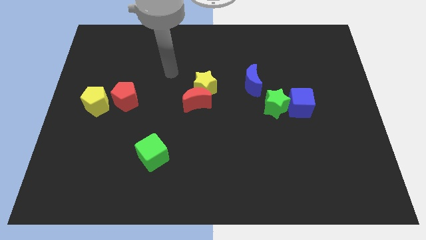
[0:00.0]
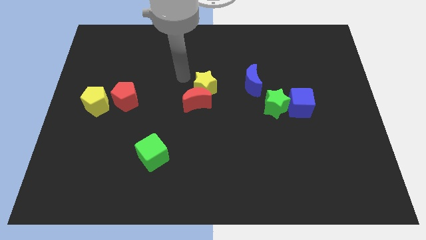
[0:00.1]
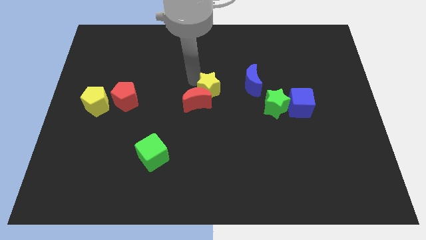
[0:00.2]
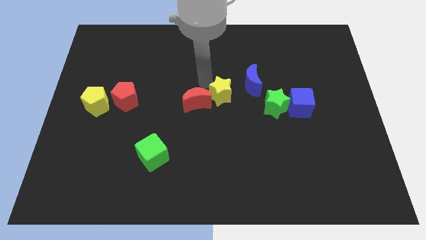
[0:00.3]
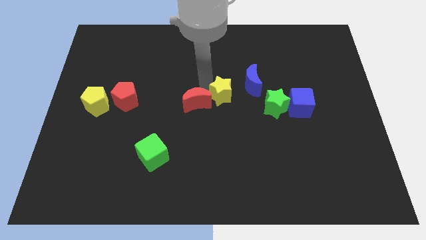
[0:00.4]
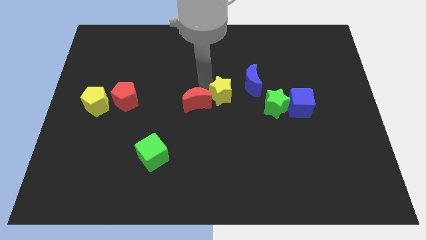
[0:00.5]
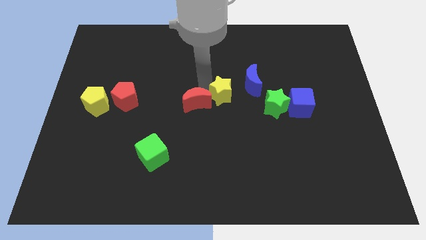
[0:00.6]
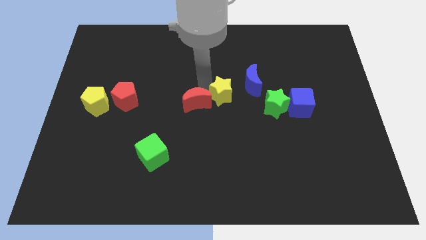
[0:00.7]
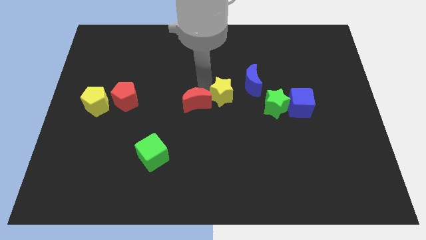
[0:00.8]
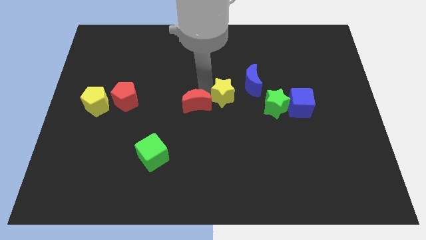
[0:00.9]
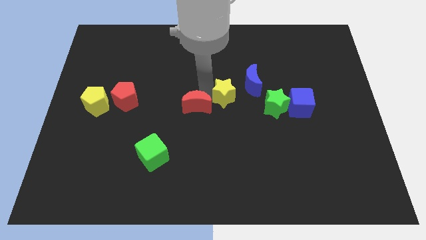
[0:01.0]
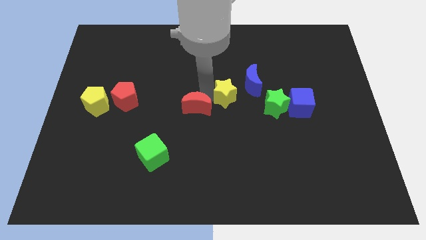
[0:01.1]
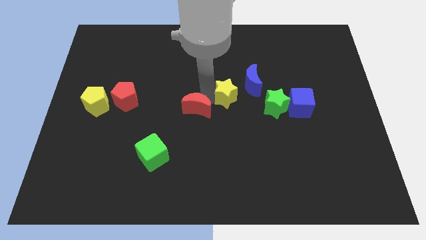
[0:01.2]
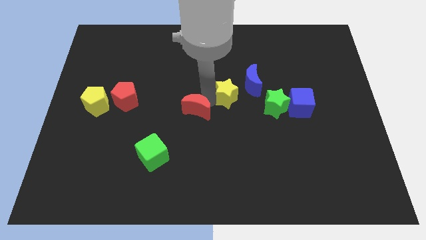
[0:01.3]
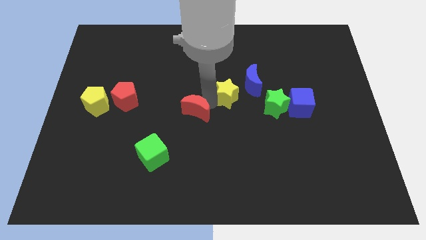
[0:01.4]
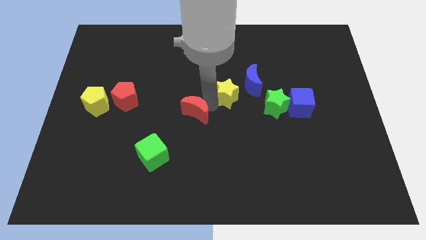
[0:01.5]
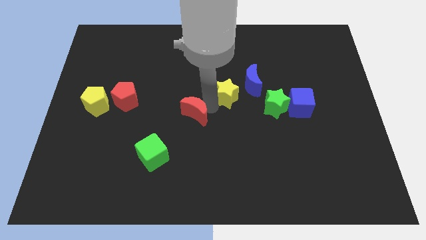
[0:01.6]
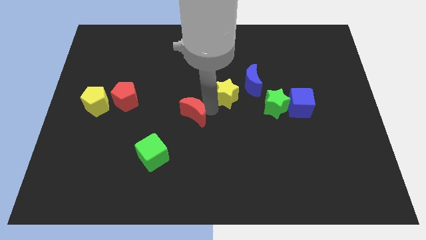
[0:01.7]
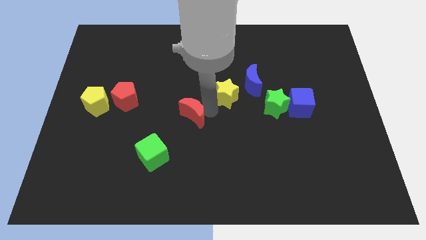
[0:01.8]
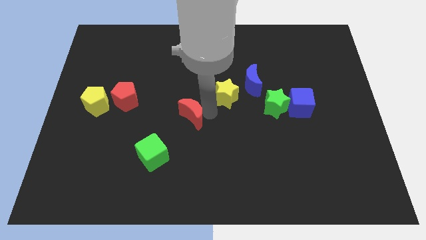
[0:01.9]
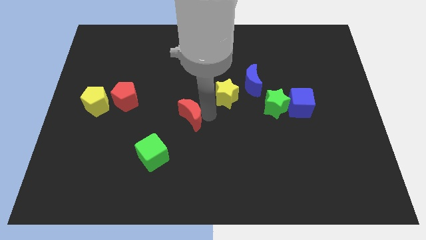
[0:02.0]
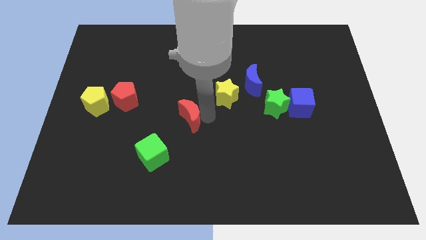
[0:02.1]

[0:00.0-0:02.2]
pull the red moon apart from the yellow star

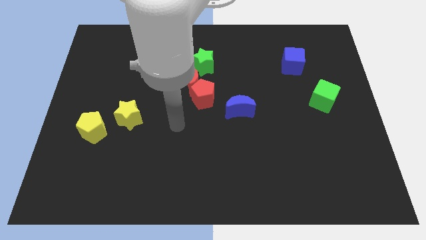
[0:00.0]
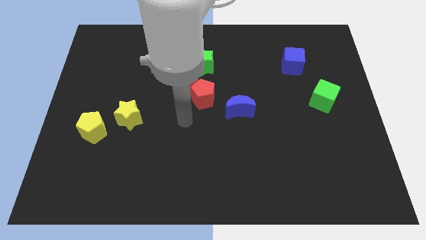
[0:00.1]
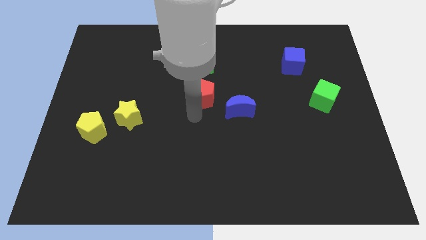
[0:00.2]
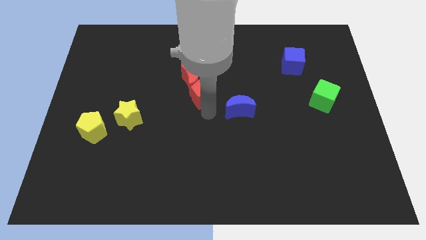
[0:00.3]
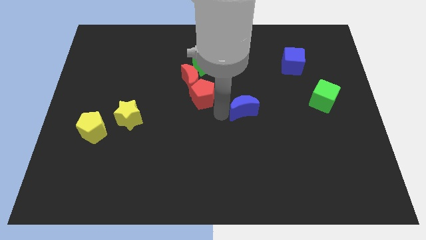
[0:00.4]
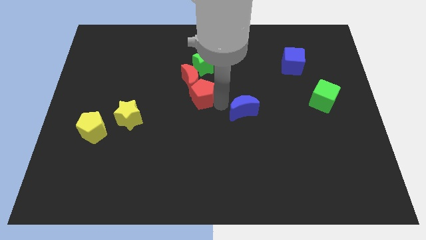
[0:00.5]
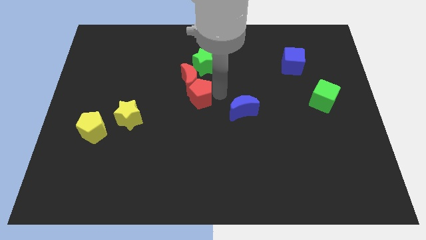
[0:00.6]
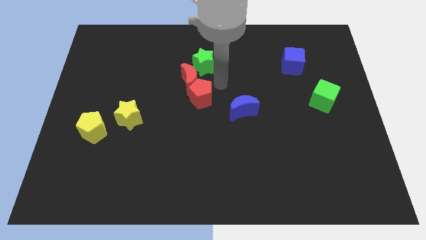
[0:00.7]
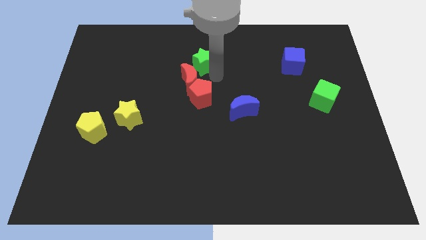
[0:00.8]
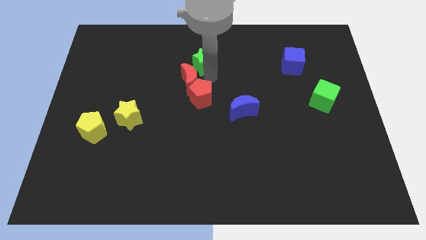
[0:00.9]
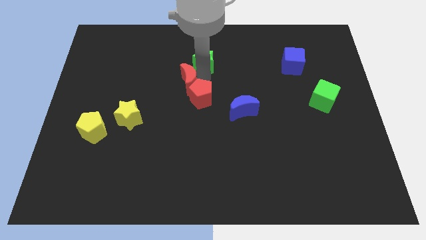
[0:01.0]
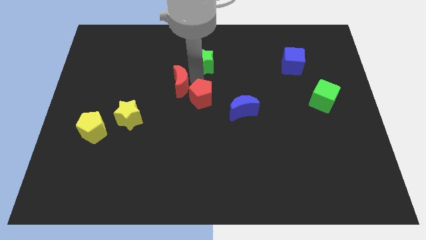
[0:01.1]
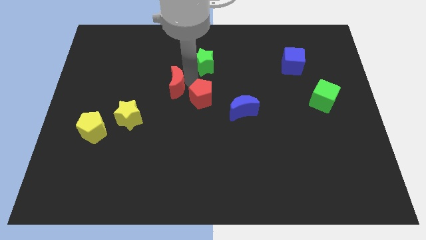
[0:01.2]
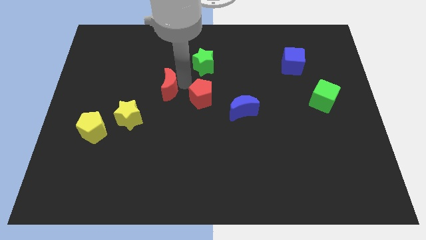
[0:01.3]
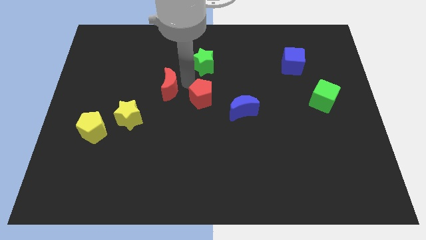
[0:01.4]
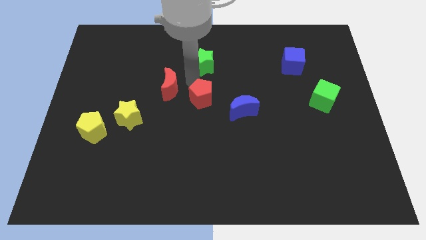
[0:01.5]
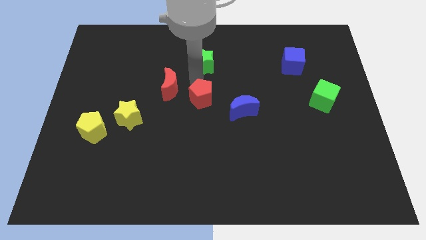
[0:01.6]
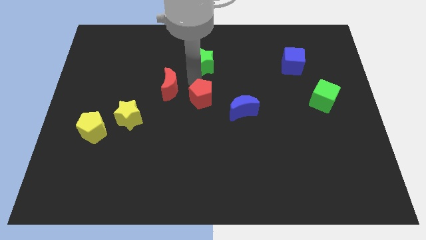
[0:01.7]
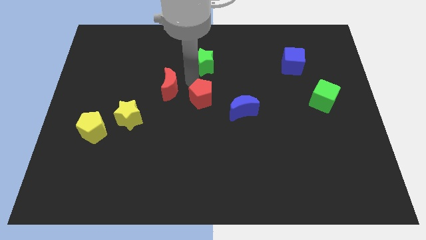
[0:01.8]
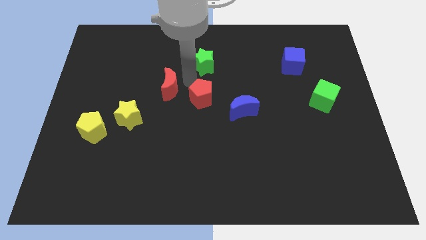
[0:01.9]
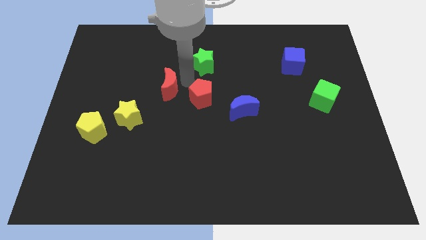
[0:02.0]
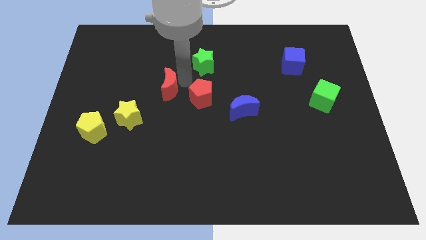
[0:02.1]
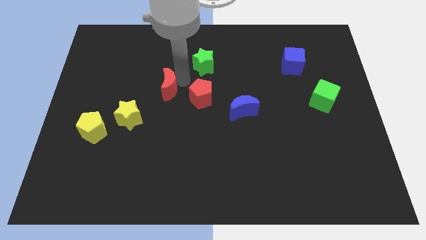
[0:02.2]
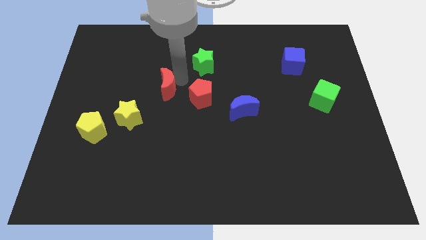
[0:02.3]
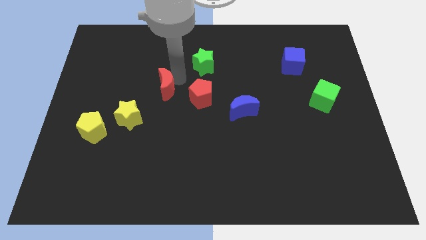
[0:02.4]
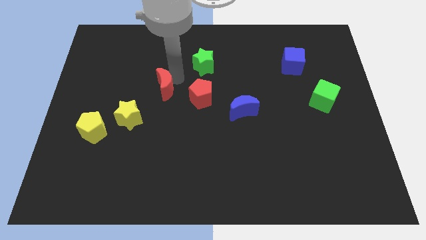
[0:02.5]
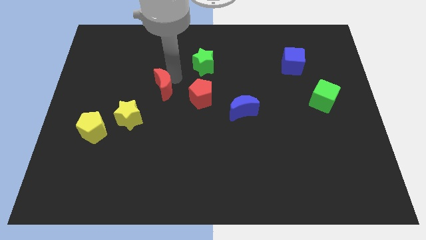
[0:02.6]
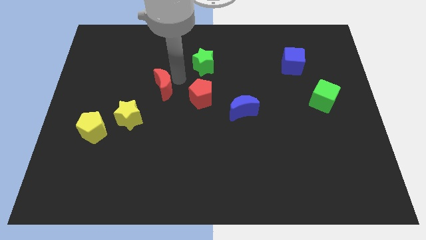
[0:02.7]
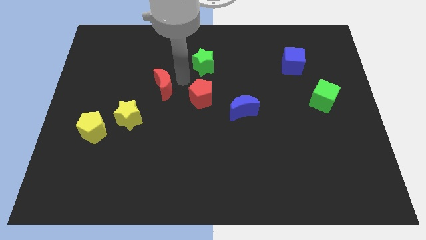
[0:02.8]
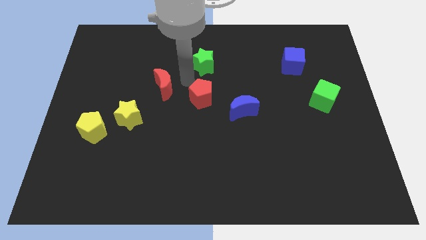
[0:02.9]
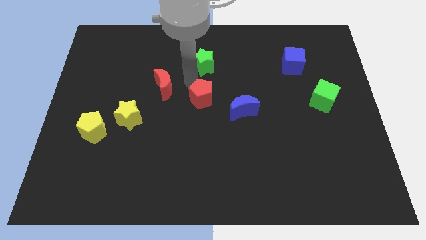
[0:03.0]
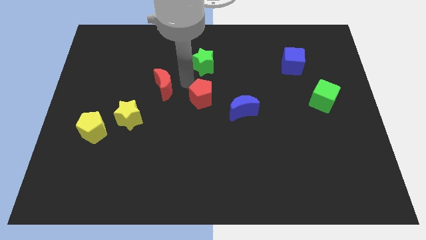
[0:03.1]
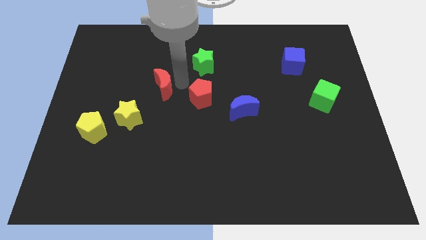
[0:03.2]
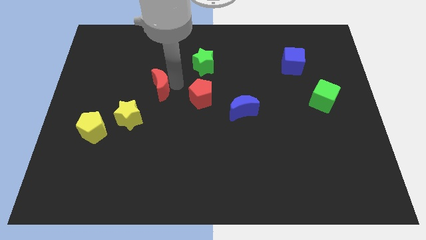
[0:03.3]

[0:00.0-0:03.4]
pull the red moon apart from the red pentagon and green star

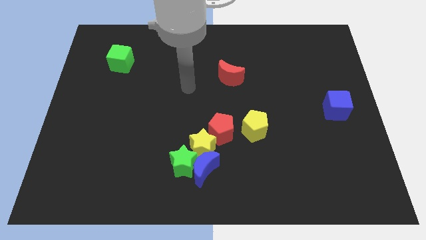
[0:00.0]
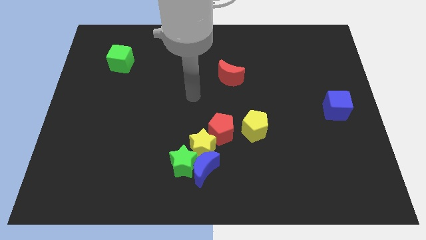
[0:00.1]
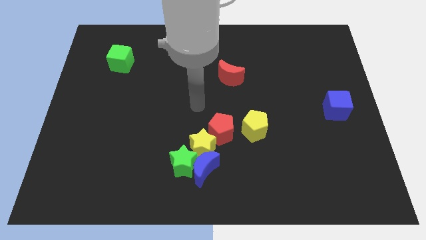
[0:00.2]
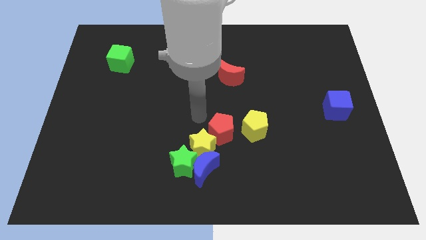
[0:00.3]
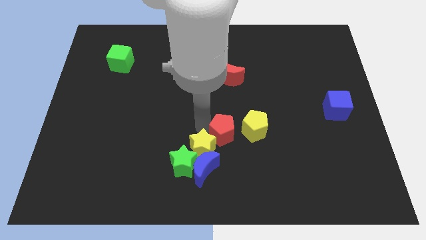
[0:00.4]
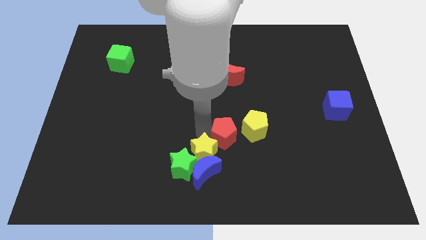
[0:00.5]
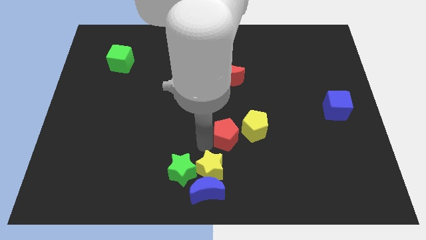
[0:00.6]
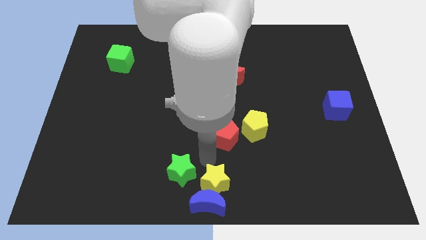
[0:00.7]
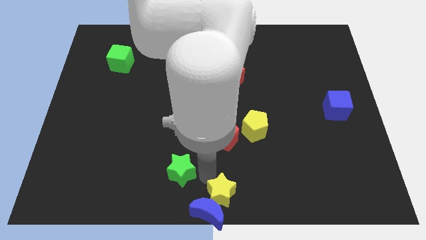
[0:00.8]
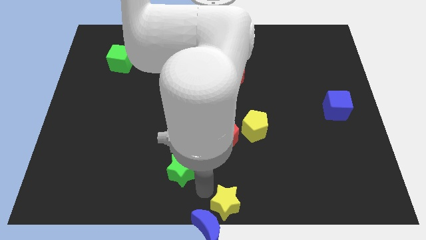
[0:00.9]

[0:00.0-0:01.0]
move the green star away from the blue moon and yellow star

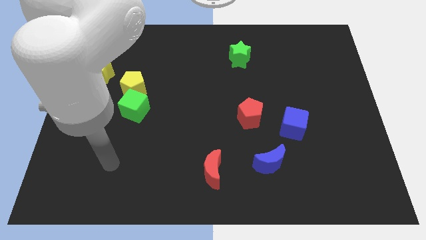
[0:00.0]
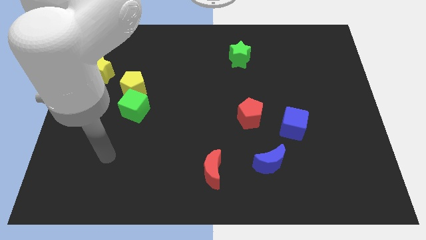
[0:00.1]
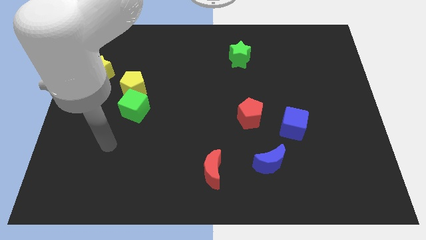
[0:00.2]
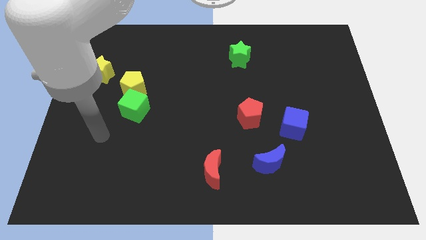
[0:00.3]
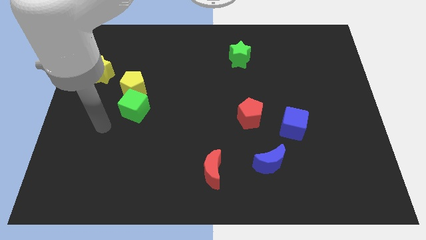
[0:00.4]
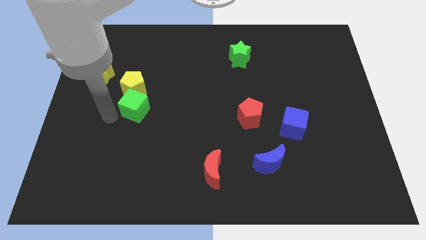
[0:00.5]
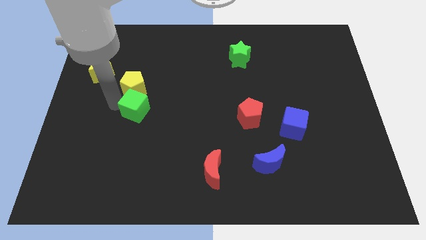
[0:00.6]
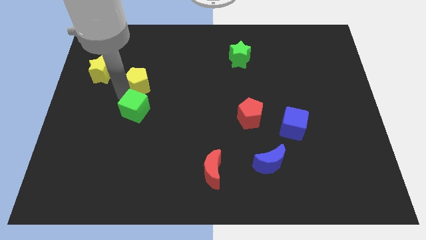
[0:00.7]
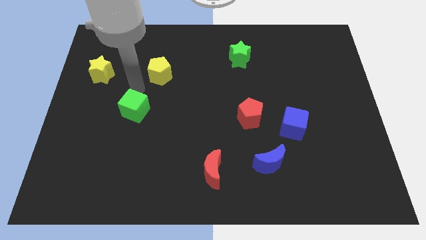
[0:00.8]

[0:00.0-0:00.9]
pull the green cube apart from the yellow pentagon

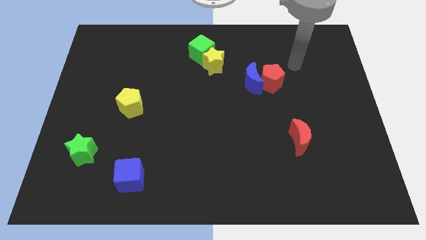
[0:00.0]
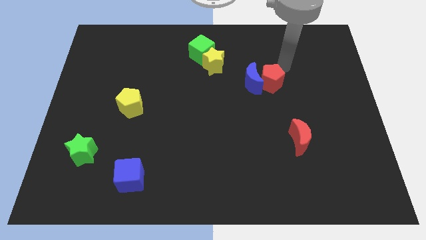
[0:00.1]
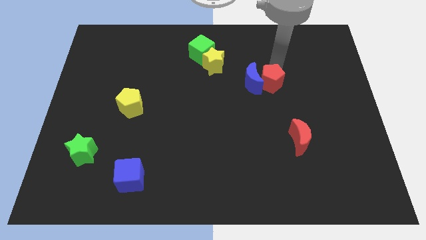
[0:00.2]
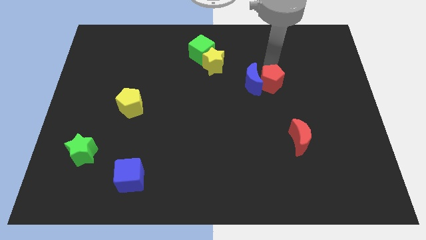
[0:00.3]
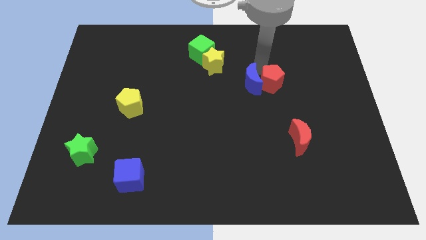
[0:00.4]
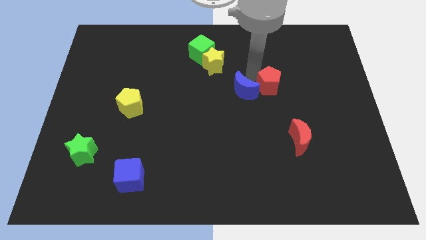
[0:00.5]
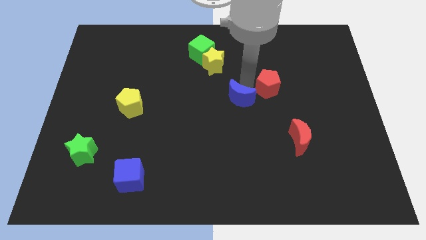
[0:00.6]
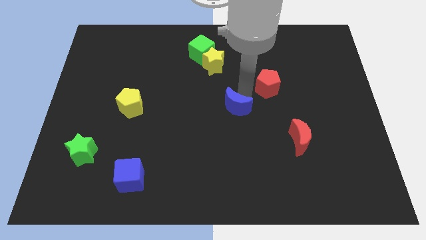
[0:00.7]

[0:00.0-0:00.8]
pull the red pentagon apart from the blue moon

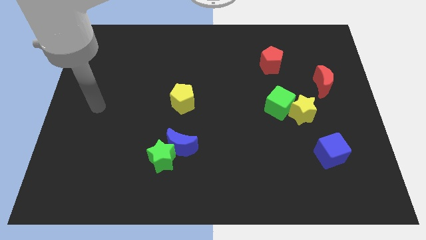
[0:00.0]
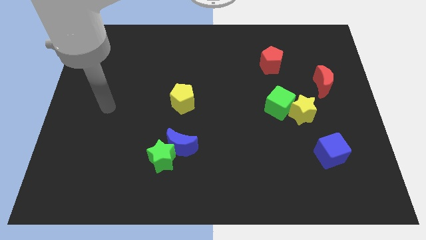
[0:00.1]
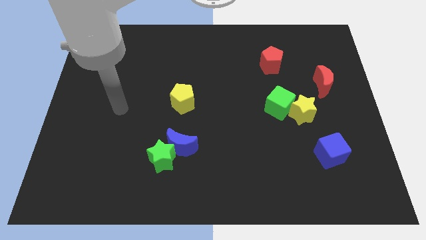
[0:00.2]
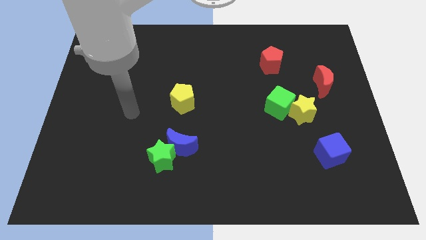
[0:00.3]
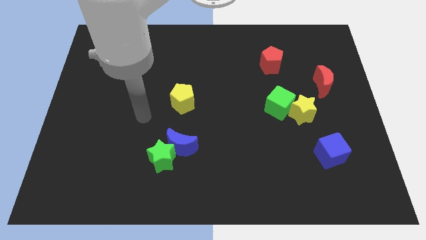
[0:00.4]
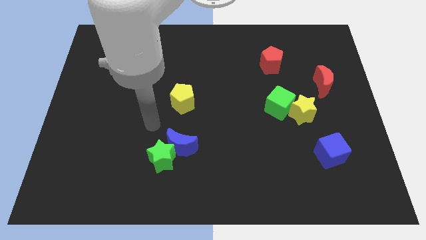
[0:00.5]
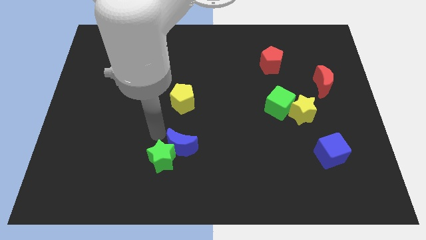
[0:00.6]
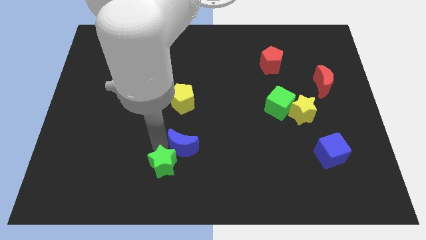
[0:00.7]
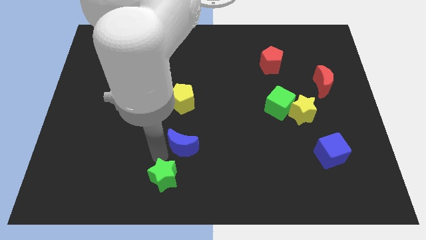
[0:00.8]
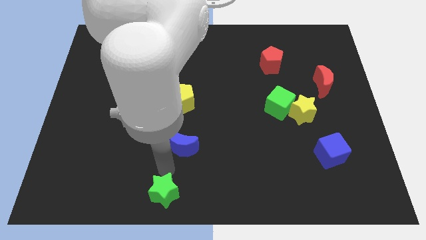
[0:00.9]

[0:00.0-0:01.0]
pull the blue moon apart from the green star

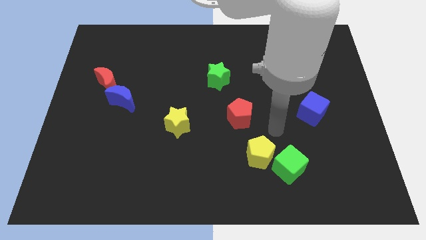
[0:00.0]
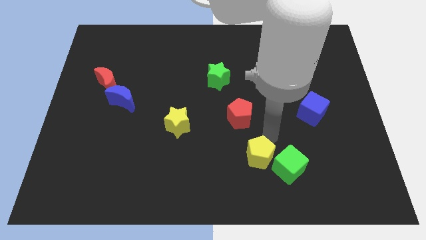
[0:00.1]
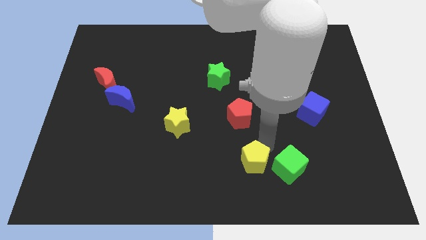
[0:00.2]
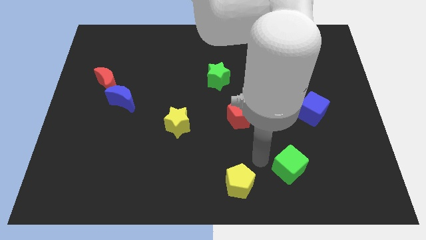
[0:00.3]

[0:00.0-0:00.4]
move the green cube away from the yellow pentagon
